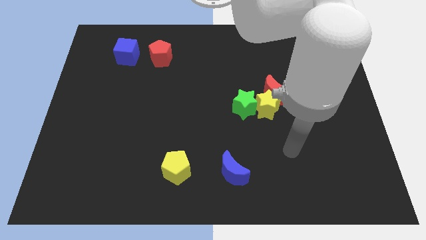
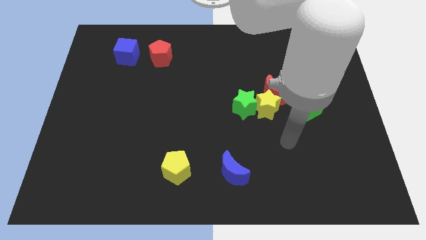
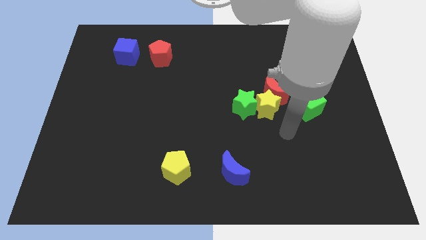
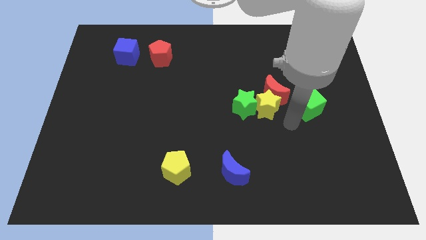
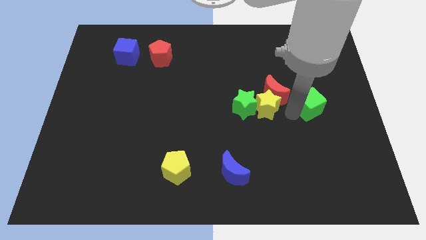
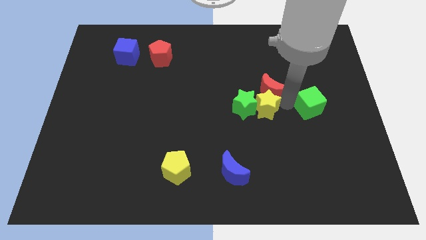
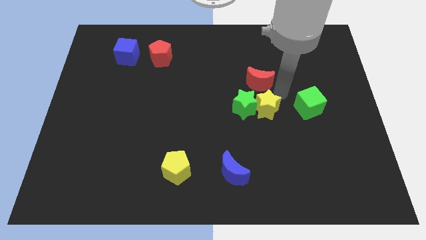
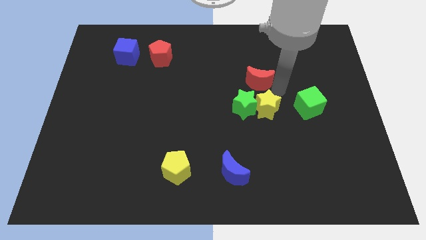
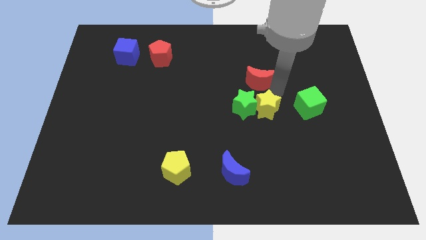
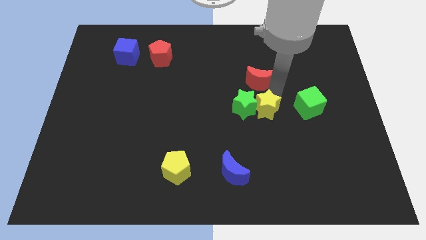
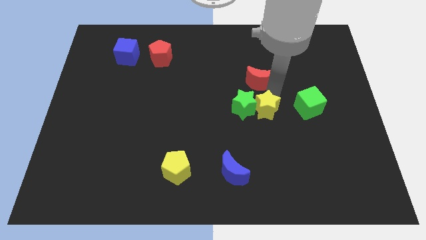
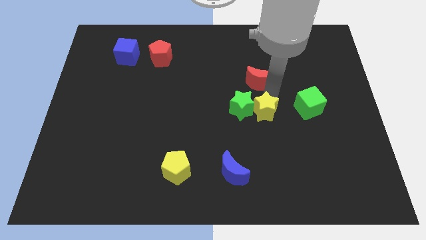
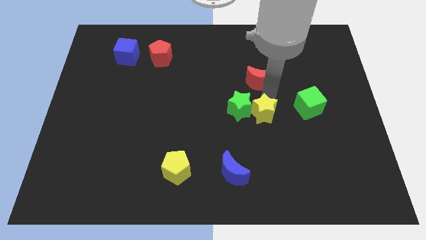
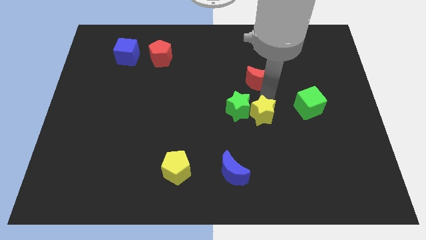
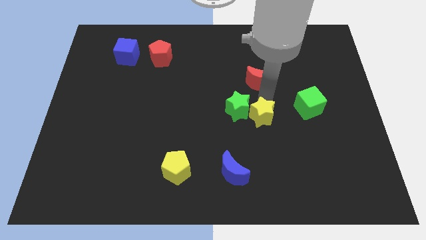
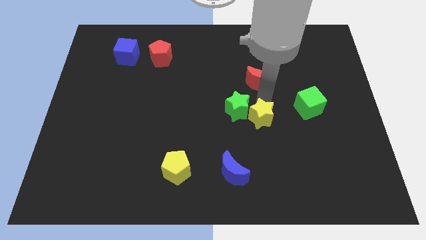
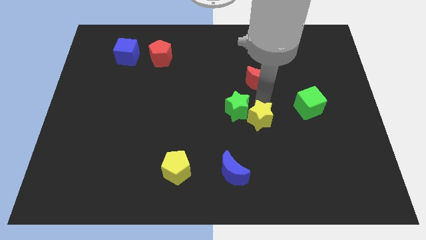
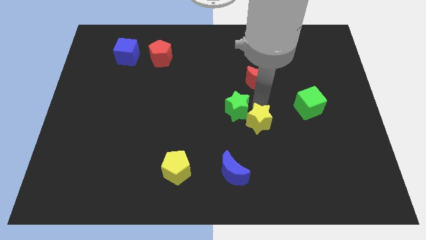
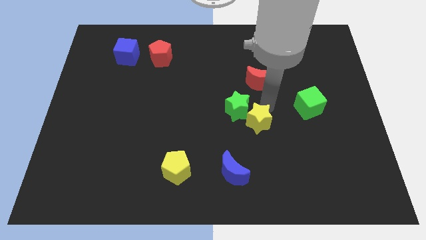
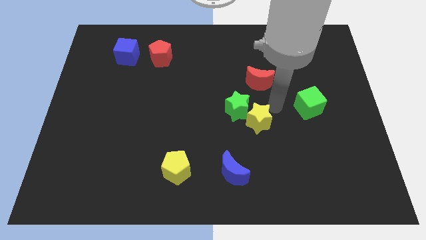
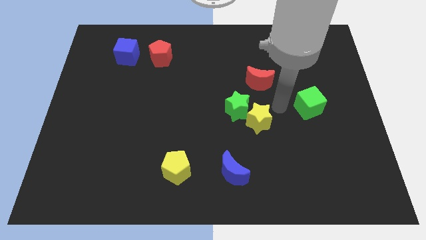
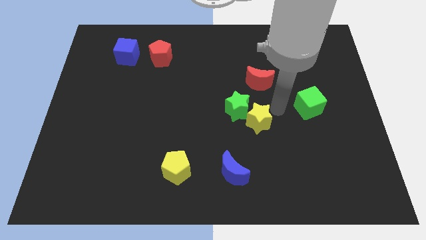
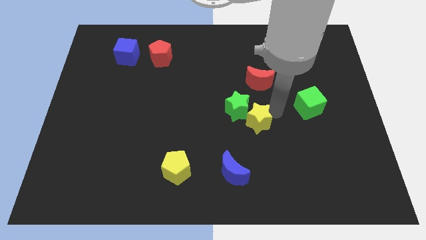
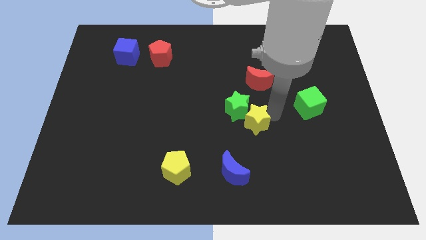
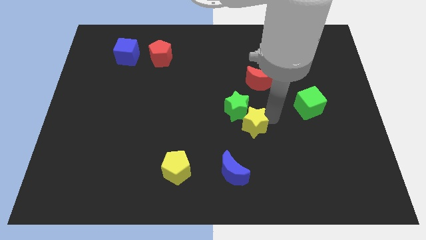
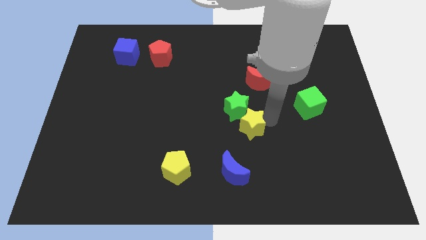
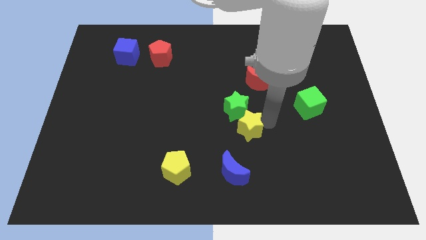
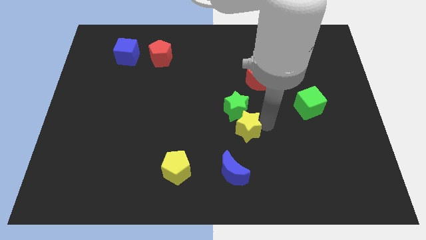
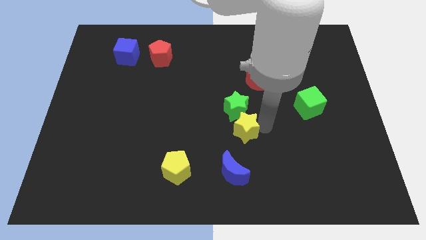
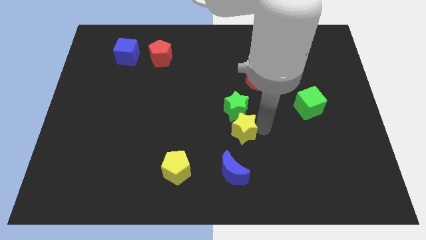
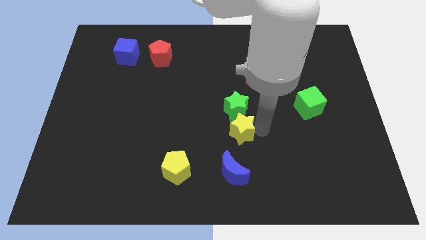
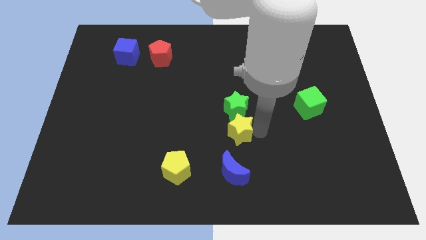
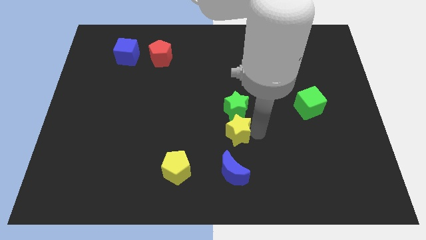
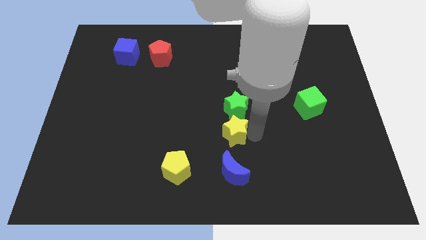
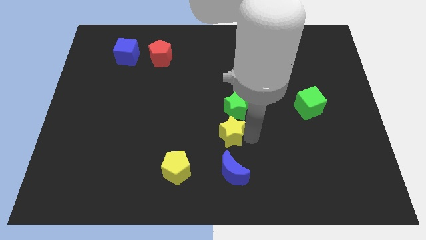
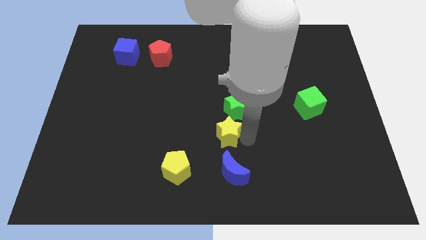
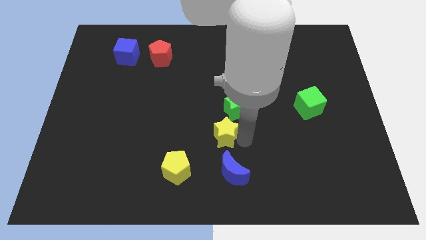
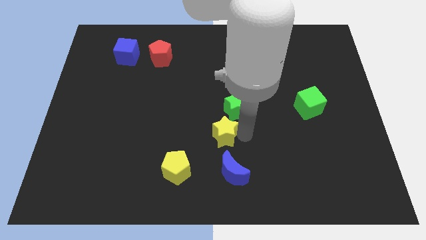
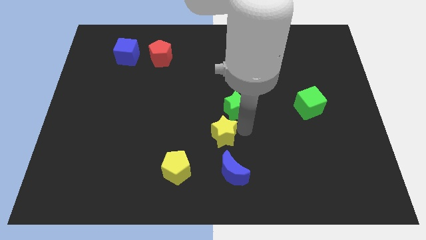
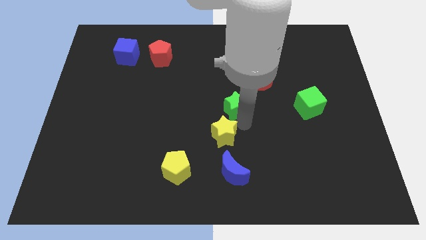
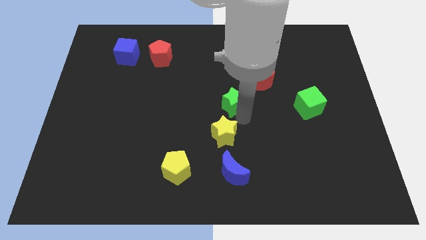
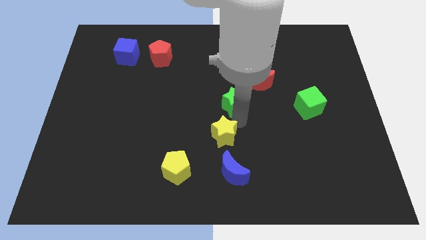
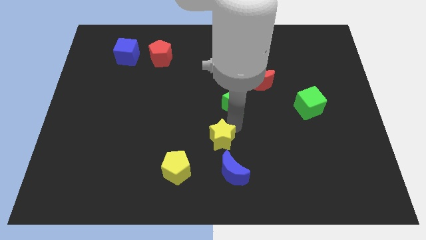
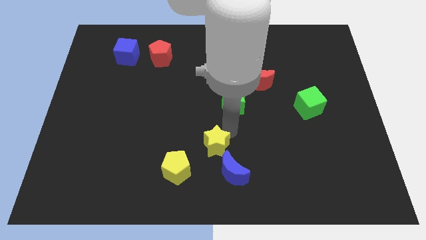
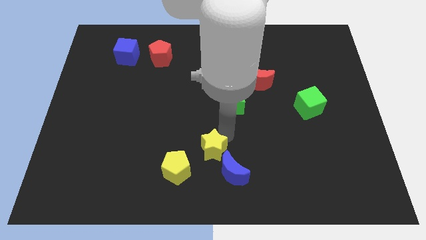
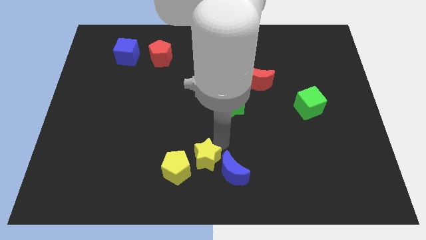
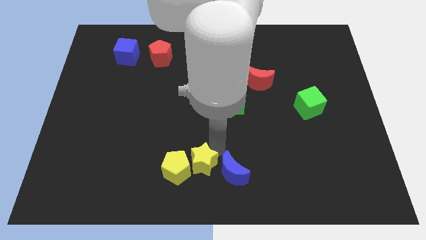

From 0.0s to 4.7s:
move the yellow star to the yellow pentagon

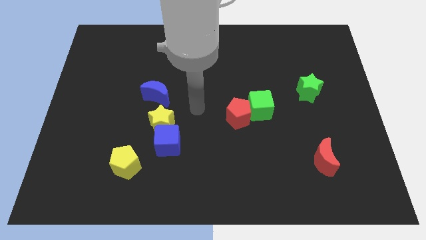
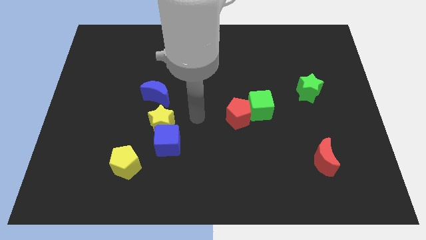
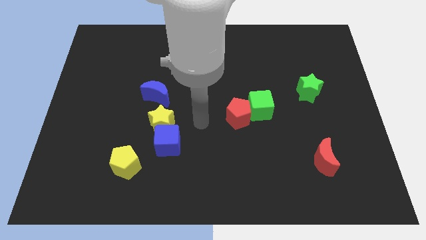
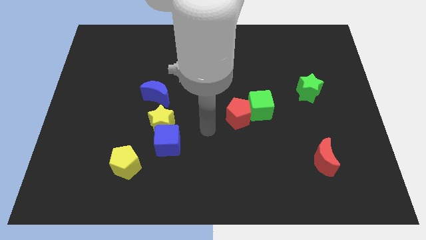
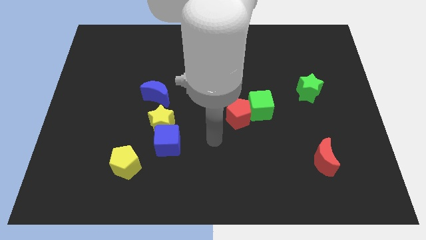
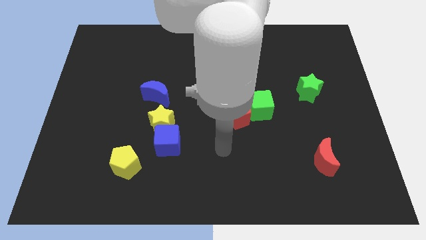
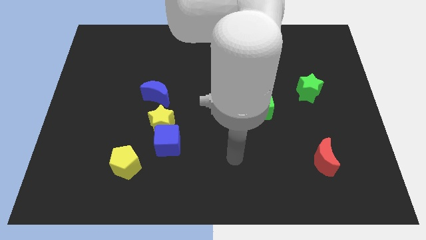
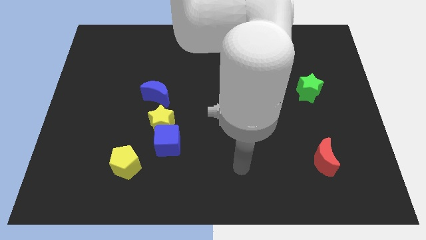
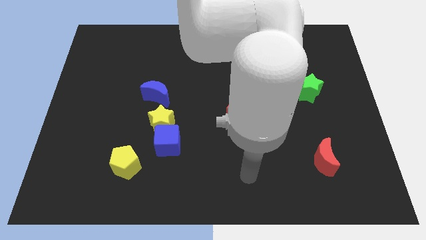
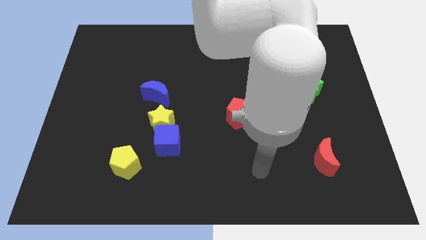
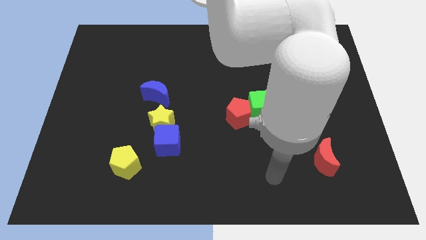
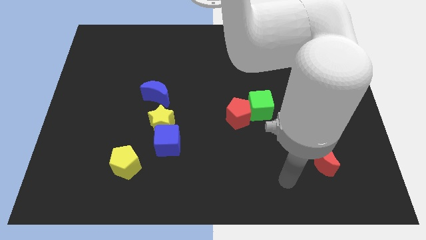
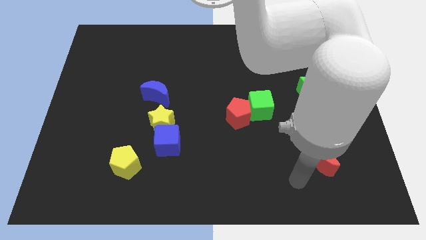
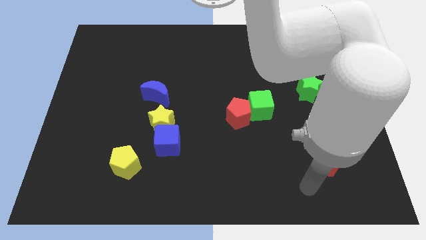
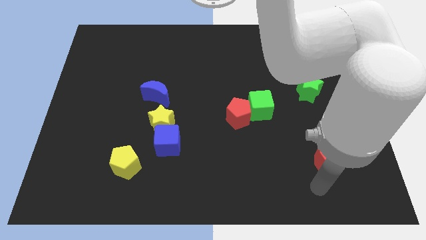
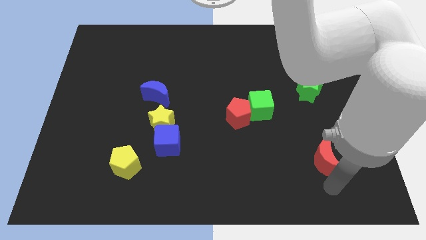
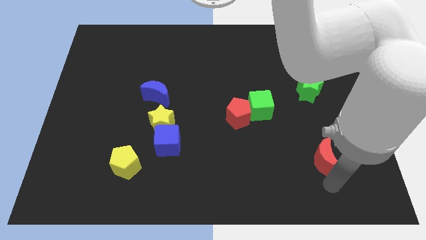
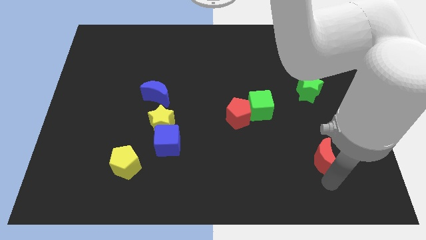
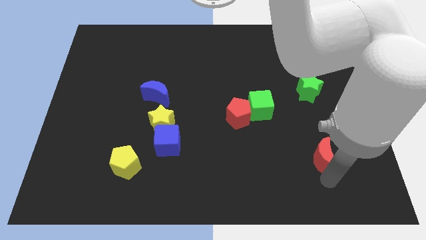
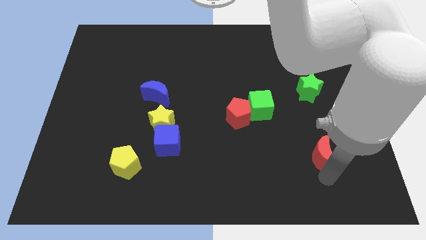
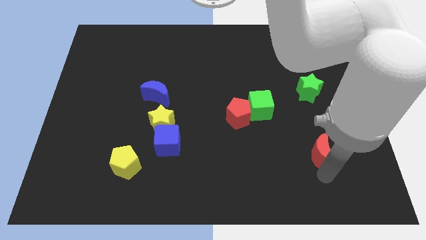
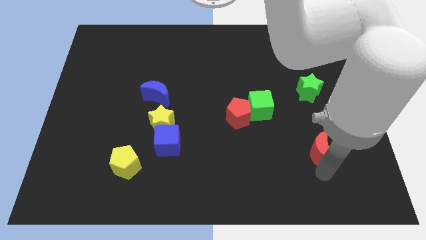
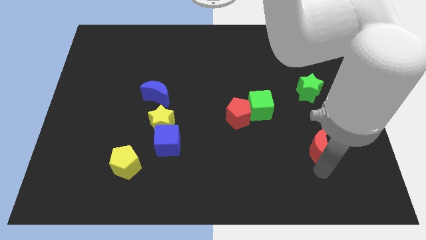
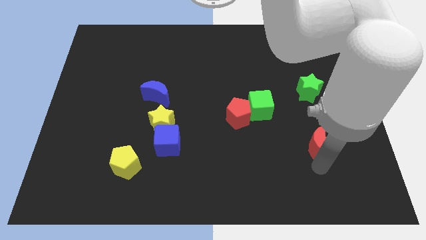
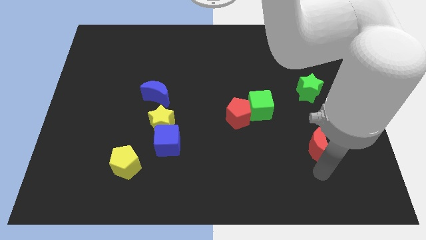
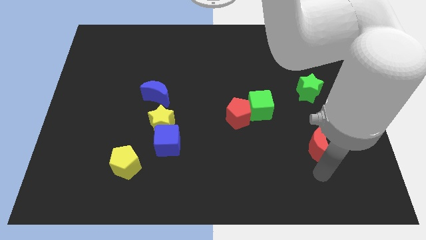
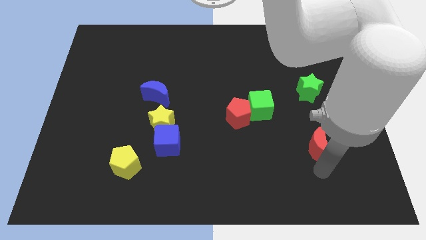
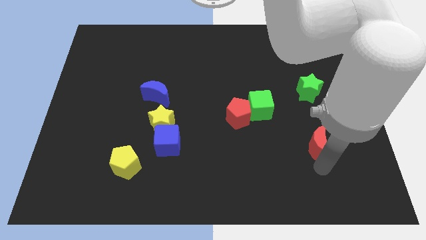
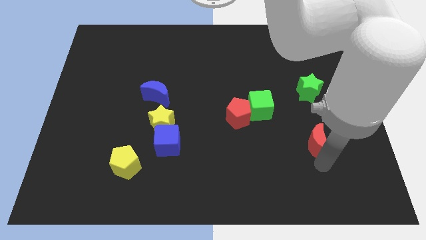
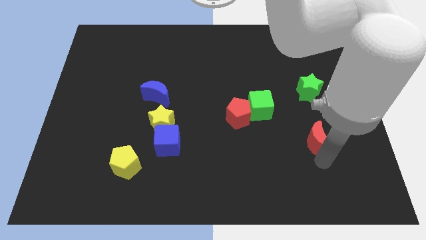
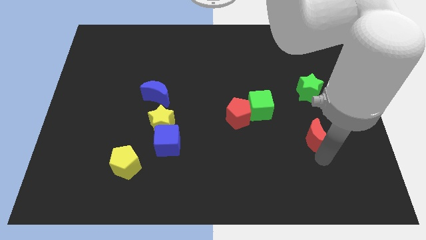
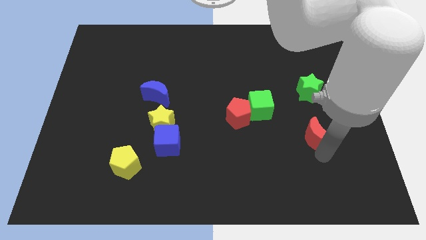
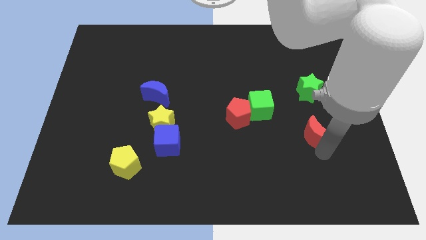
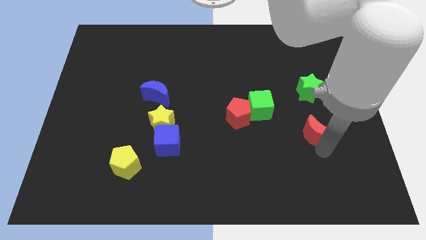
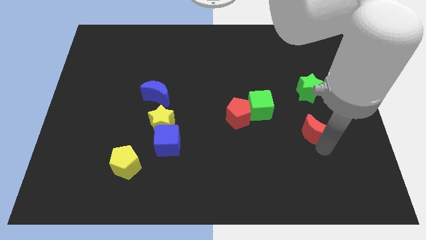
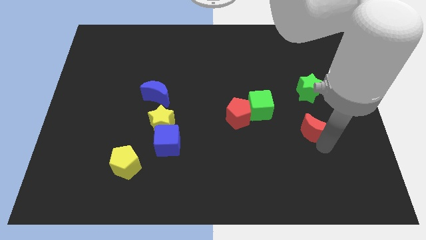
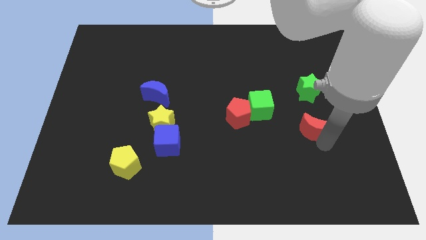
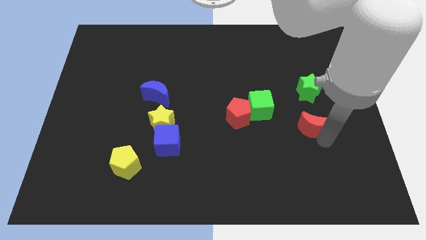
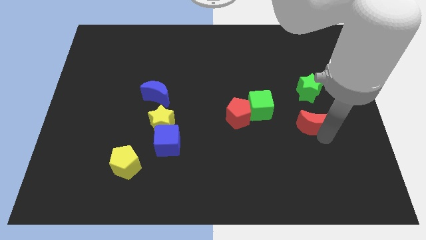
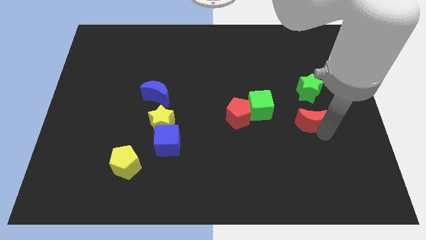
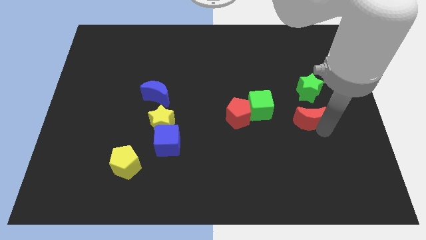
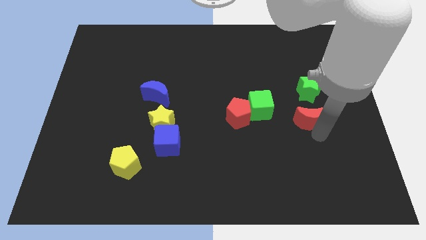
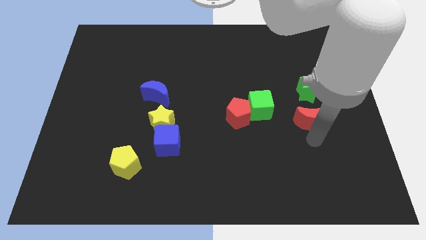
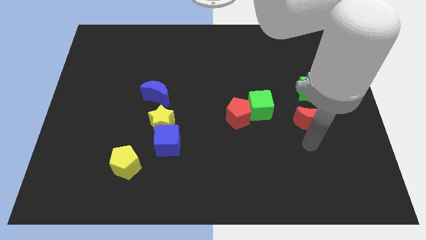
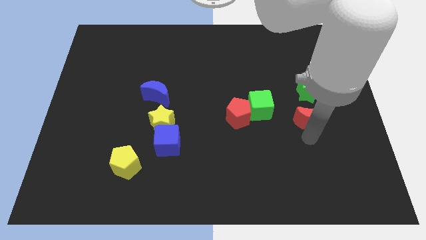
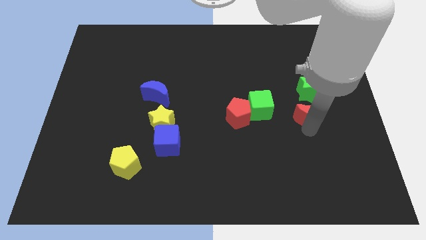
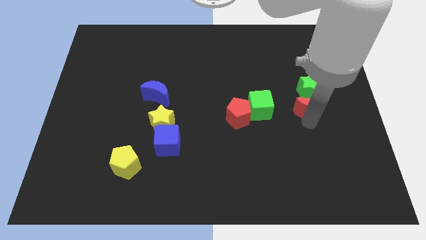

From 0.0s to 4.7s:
push the red moon to the green star
